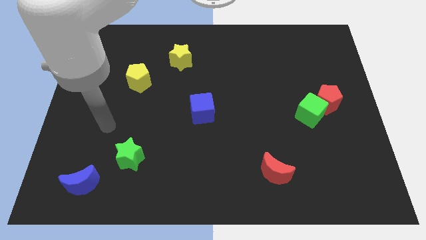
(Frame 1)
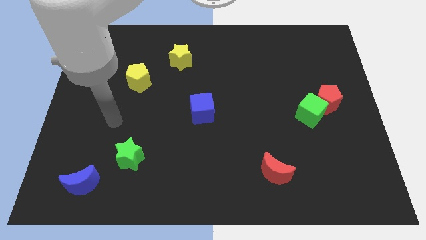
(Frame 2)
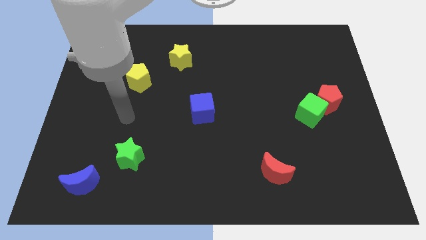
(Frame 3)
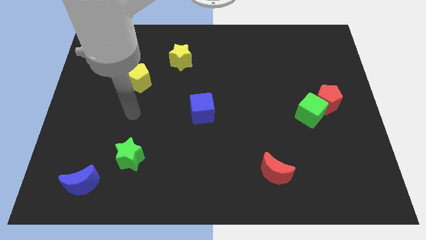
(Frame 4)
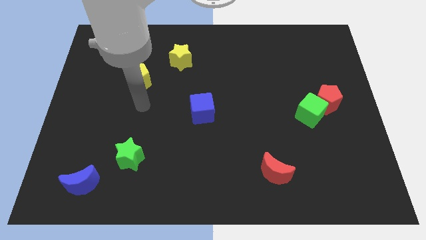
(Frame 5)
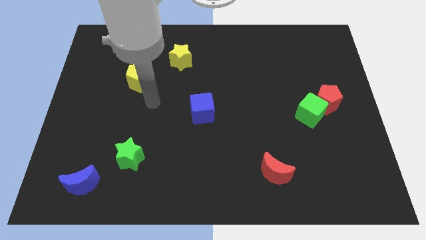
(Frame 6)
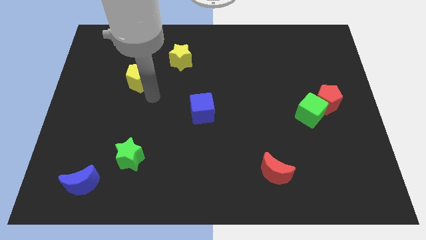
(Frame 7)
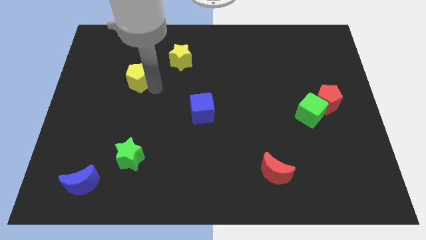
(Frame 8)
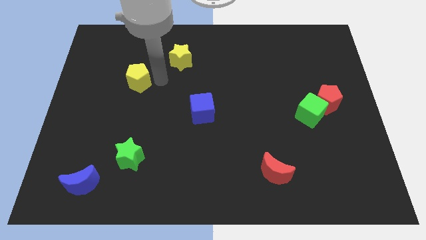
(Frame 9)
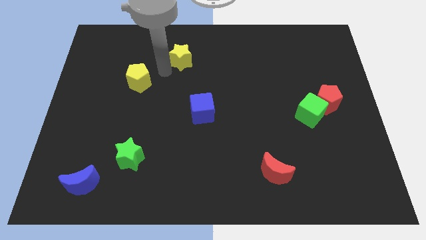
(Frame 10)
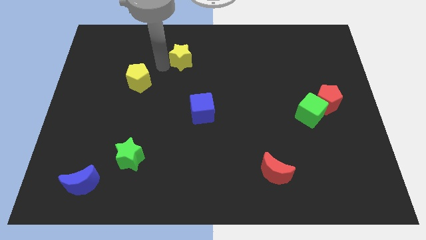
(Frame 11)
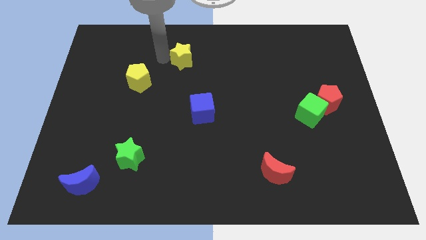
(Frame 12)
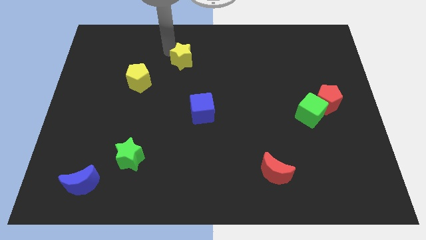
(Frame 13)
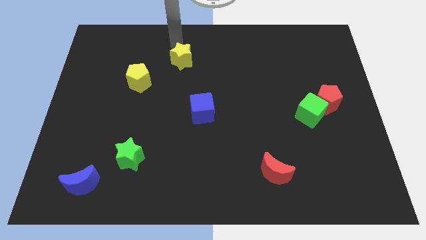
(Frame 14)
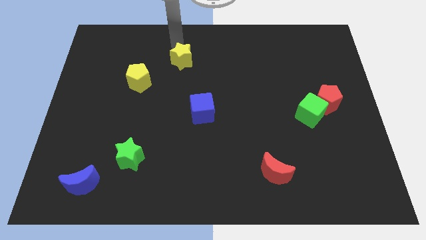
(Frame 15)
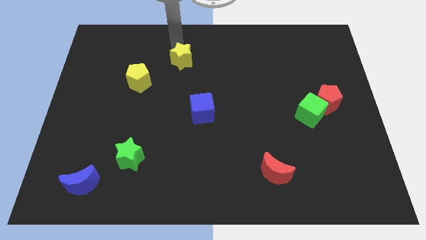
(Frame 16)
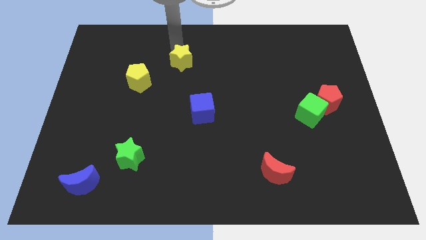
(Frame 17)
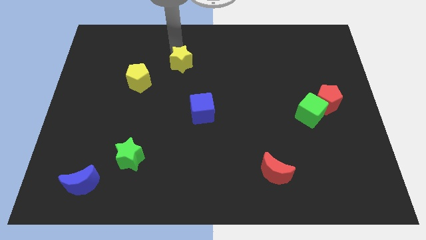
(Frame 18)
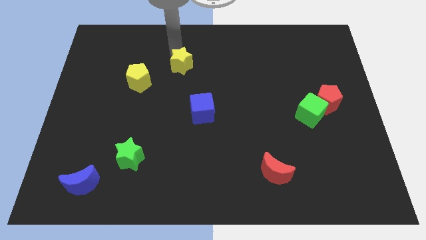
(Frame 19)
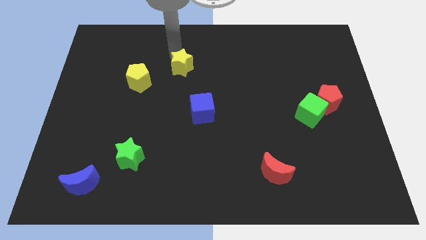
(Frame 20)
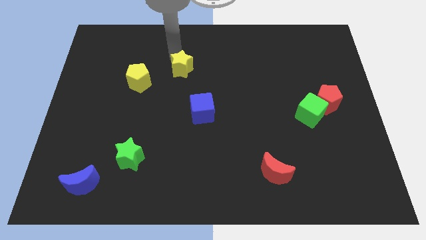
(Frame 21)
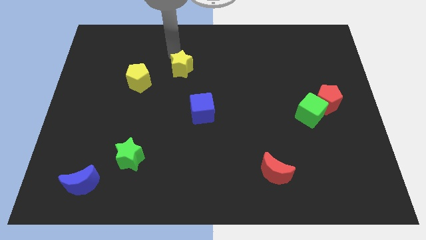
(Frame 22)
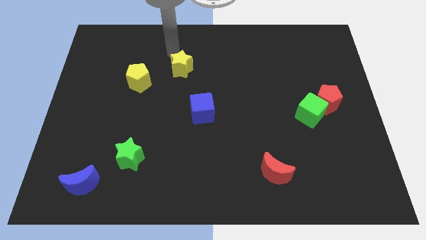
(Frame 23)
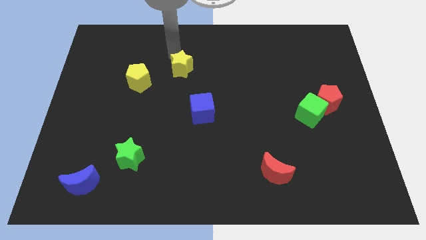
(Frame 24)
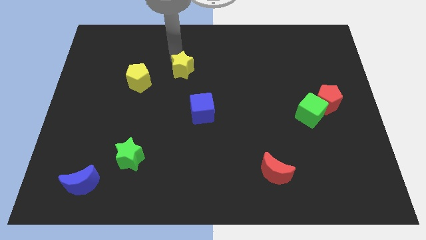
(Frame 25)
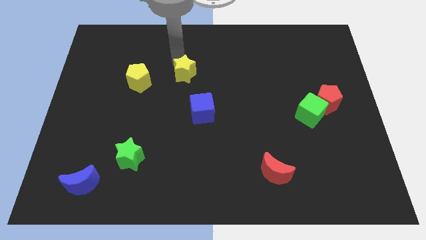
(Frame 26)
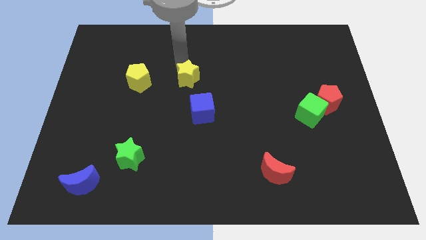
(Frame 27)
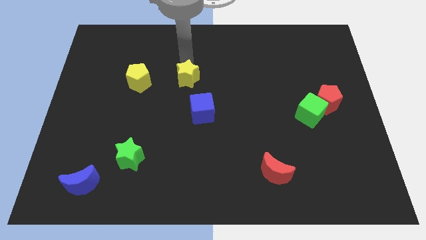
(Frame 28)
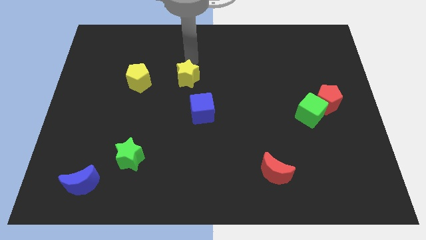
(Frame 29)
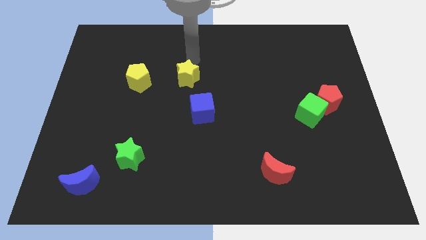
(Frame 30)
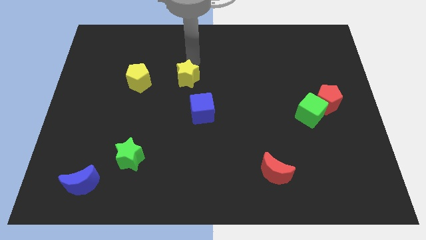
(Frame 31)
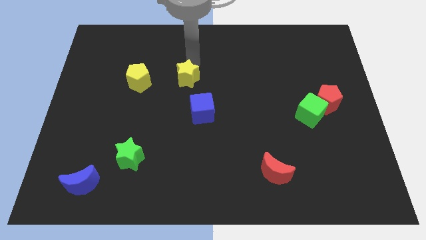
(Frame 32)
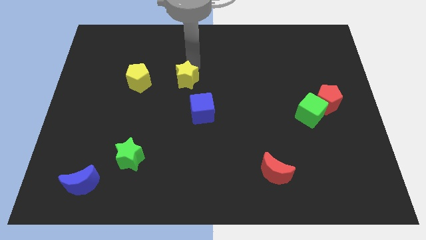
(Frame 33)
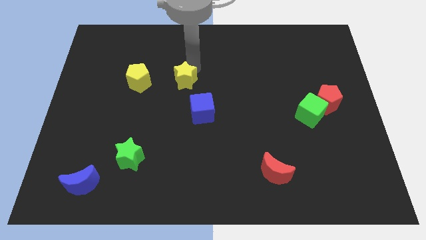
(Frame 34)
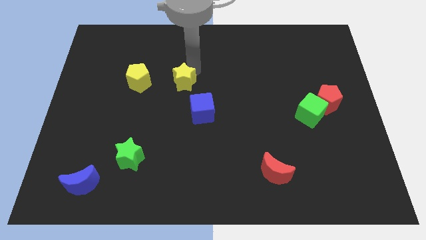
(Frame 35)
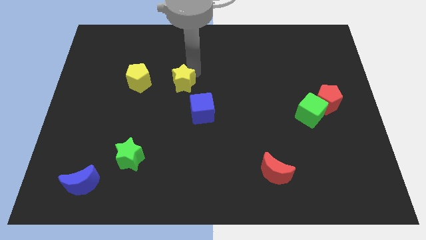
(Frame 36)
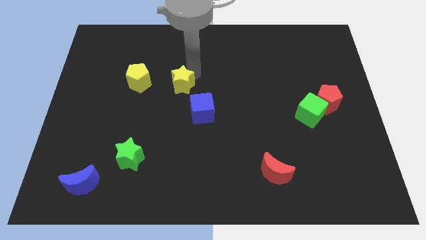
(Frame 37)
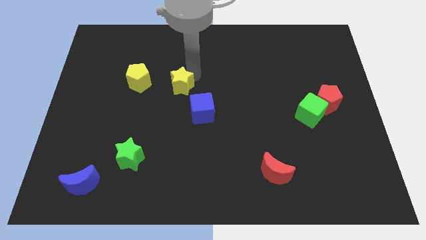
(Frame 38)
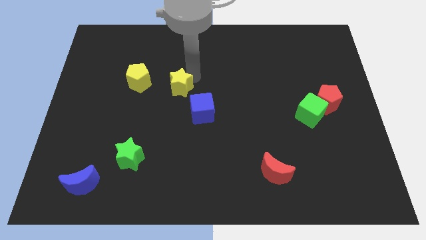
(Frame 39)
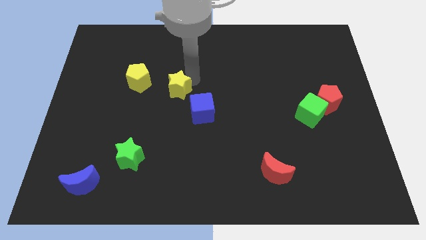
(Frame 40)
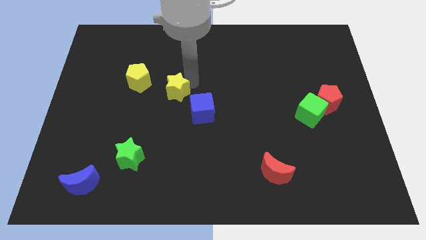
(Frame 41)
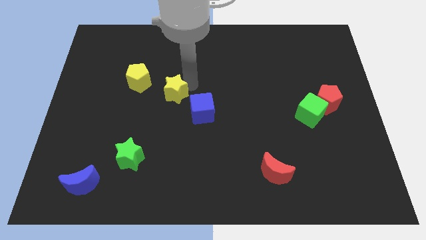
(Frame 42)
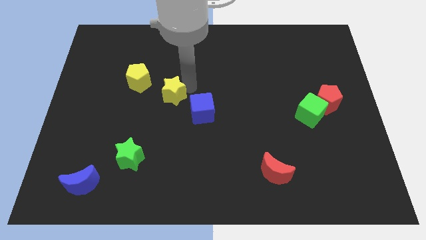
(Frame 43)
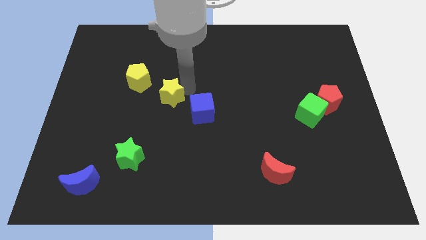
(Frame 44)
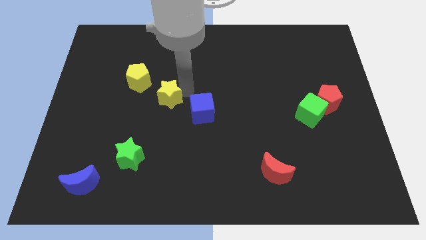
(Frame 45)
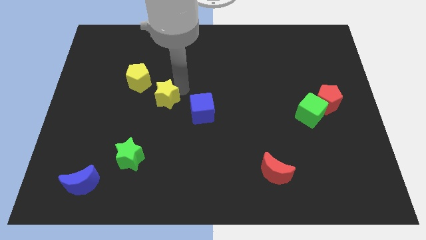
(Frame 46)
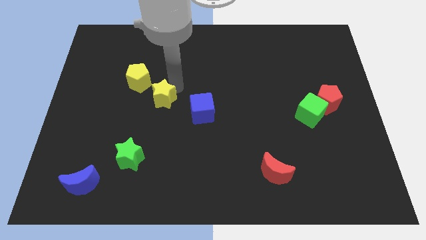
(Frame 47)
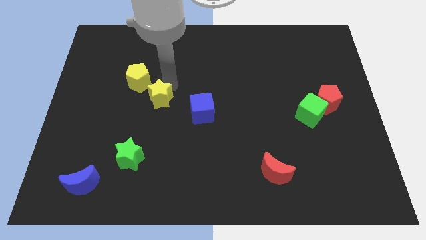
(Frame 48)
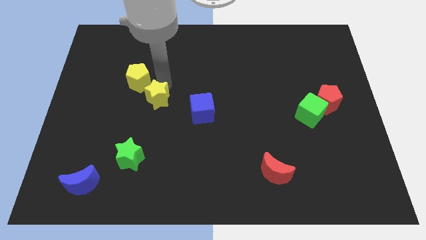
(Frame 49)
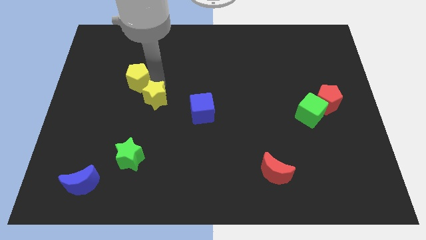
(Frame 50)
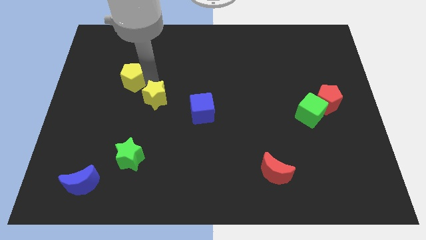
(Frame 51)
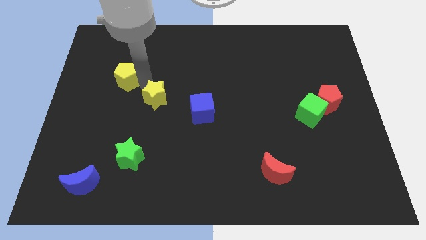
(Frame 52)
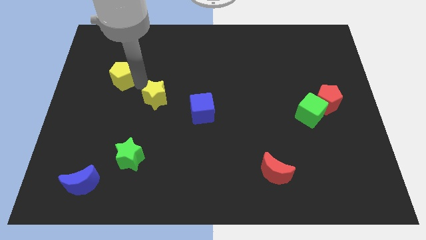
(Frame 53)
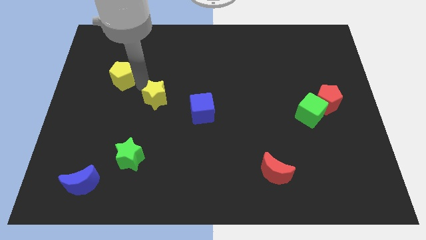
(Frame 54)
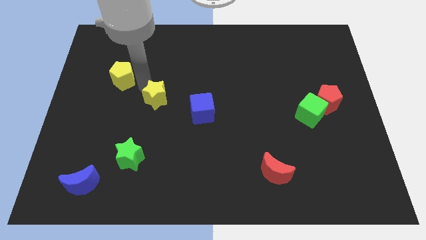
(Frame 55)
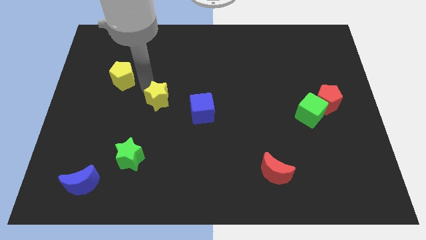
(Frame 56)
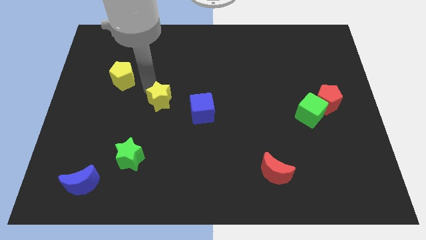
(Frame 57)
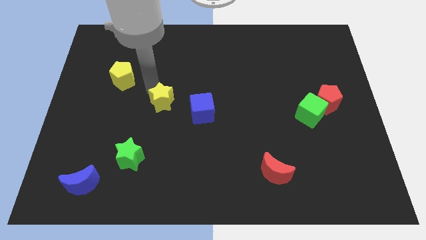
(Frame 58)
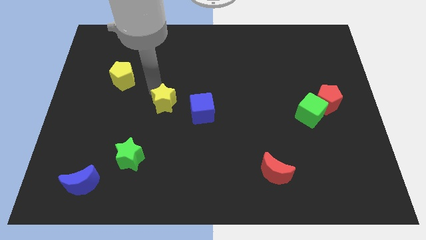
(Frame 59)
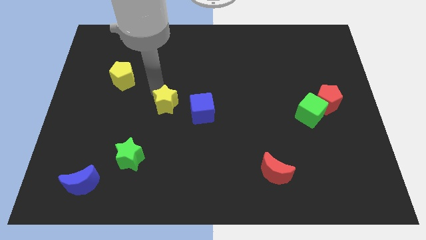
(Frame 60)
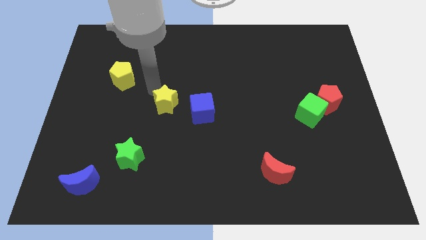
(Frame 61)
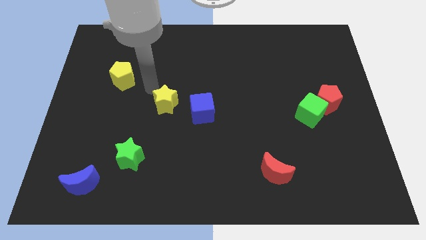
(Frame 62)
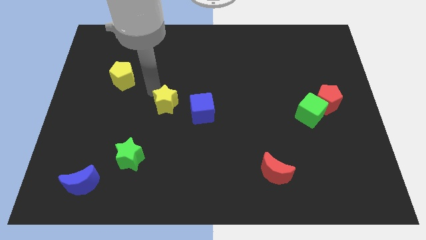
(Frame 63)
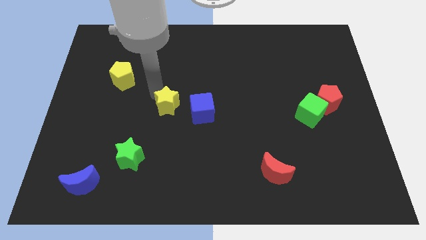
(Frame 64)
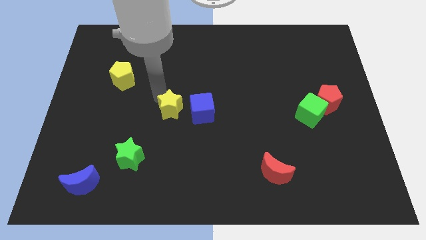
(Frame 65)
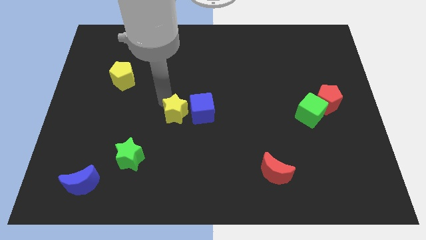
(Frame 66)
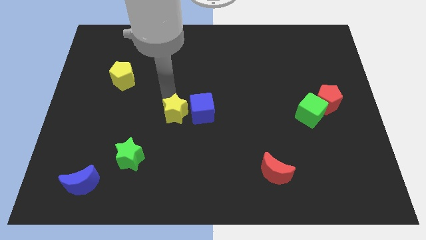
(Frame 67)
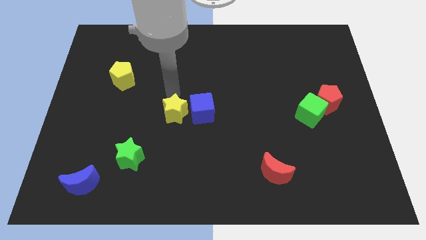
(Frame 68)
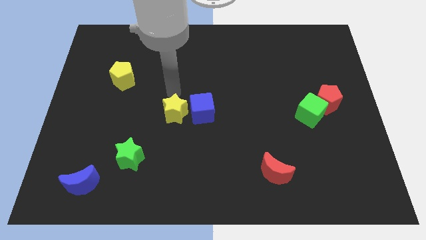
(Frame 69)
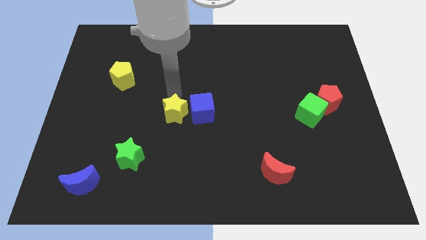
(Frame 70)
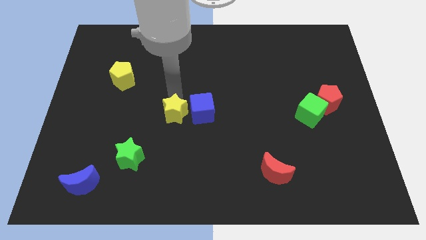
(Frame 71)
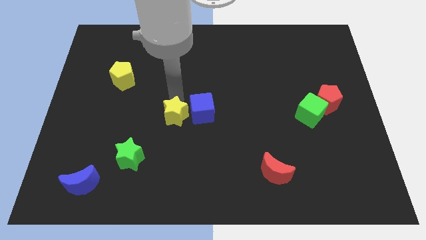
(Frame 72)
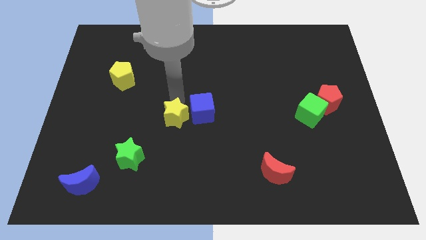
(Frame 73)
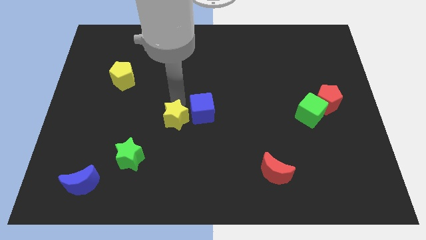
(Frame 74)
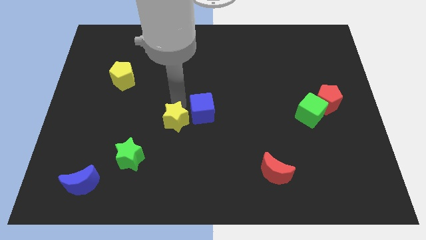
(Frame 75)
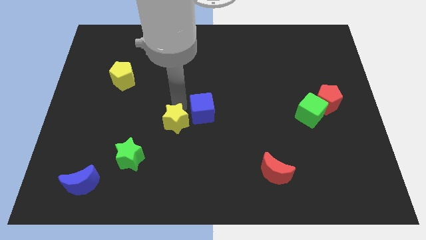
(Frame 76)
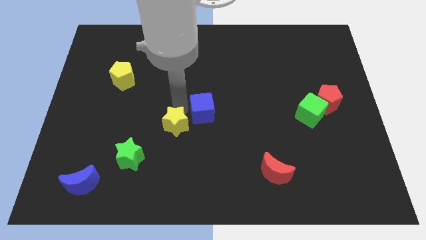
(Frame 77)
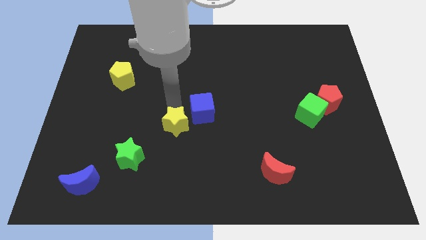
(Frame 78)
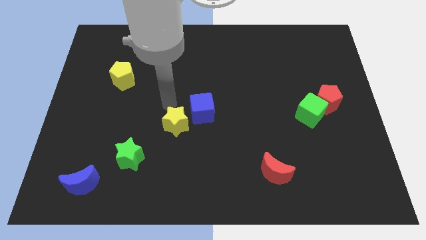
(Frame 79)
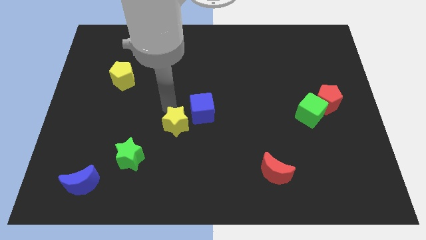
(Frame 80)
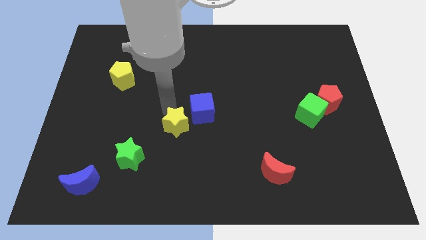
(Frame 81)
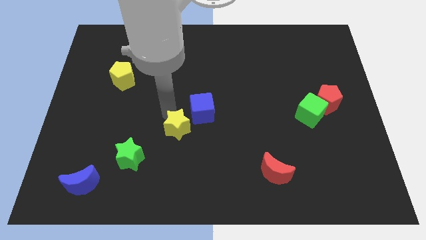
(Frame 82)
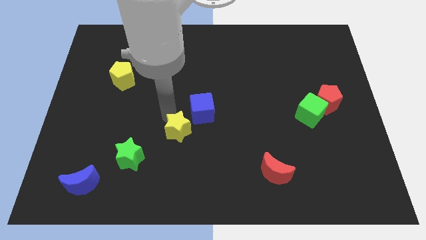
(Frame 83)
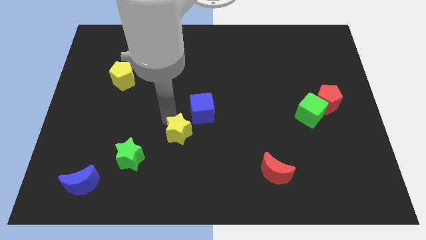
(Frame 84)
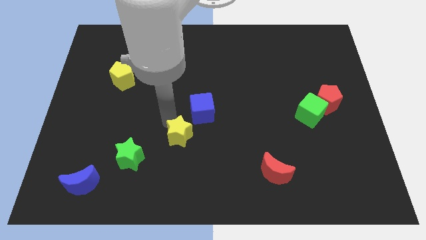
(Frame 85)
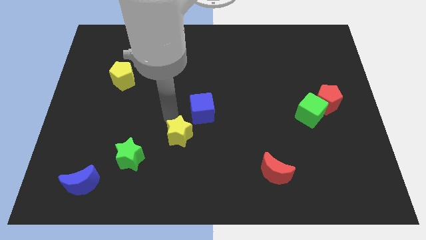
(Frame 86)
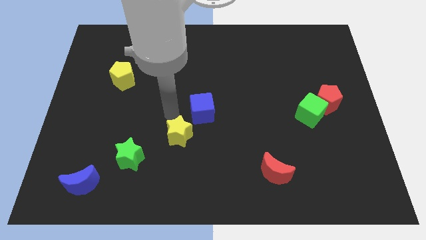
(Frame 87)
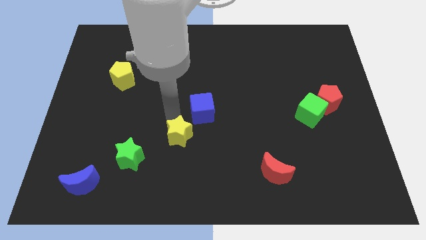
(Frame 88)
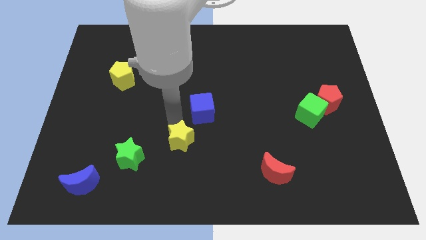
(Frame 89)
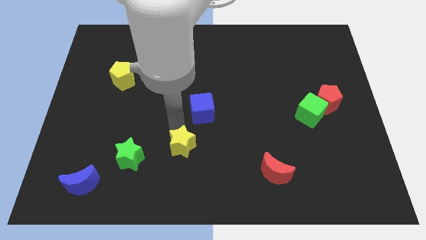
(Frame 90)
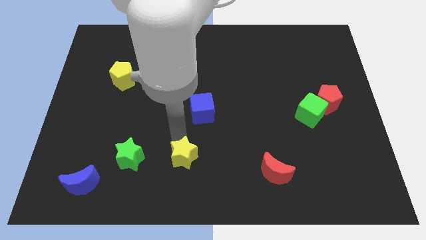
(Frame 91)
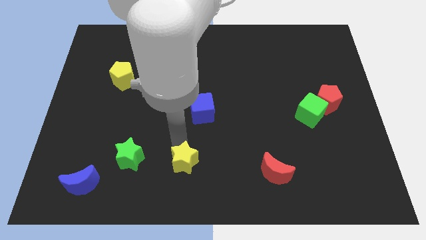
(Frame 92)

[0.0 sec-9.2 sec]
slide the yellow star to the bottom side
